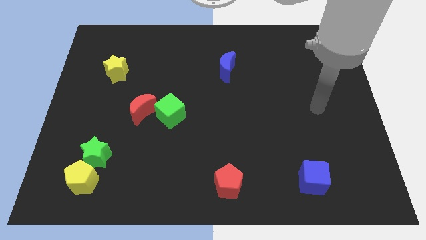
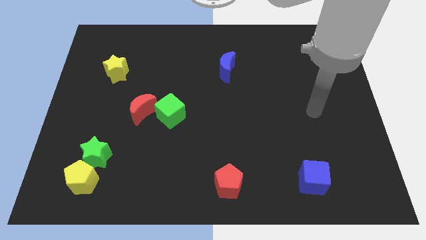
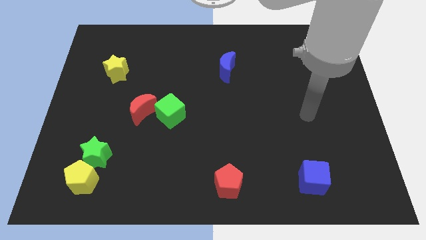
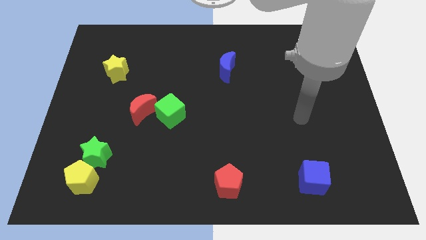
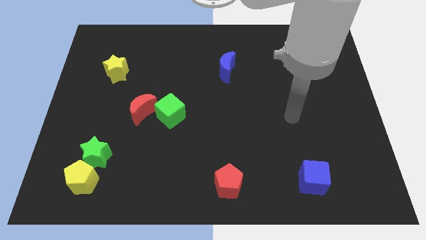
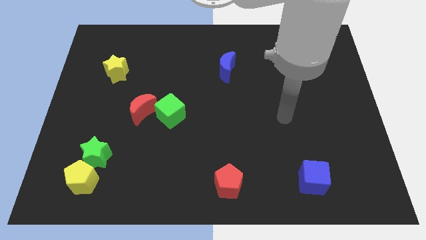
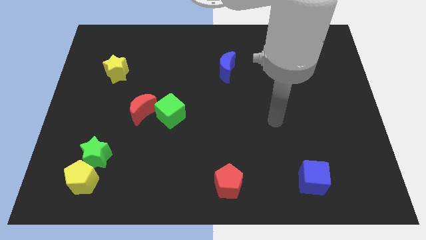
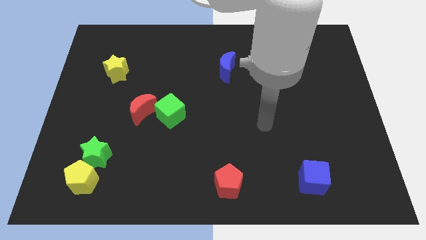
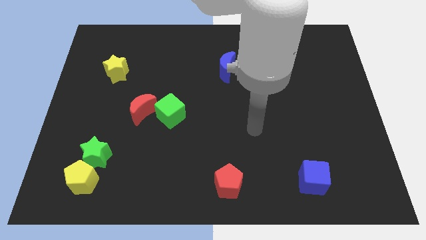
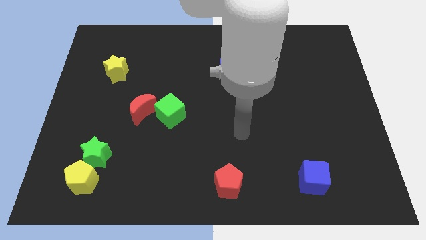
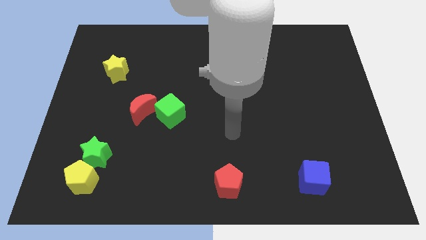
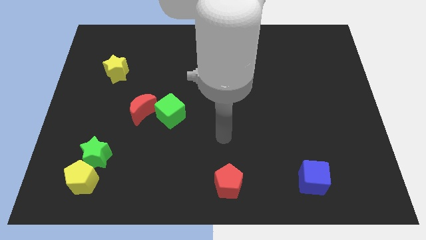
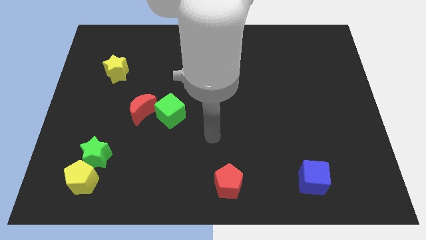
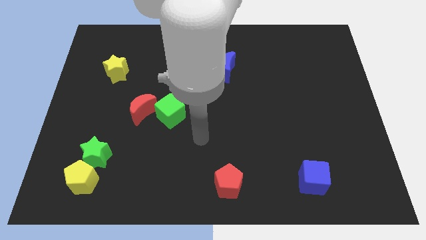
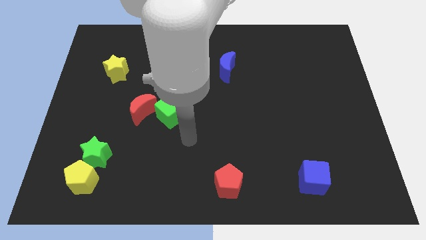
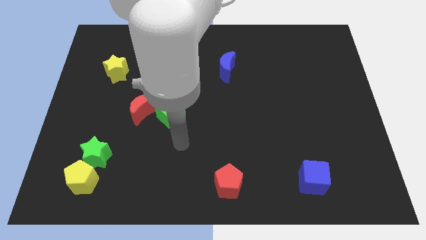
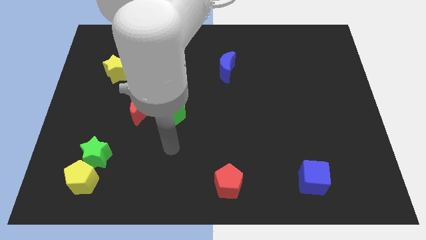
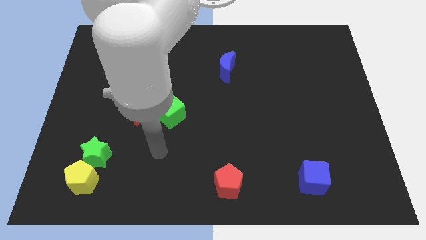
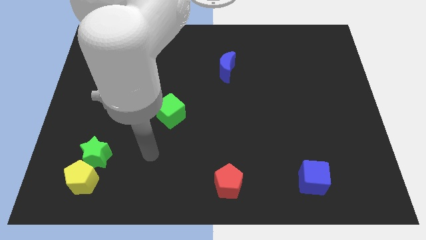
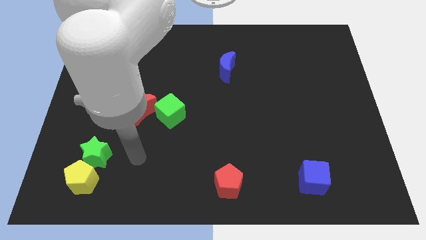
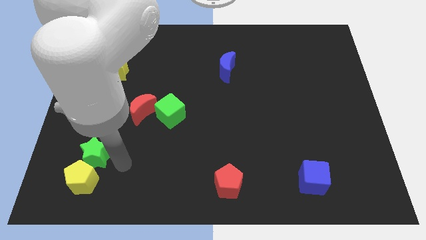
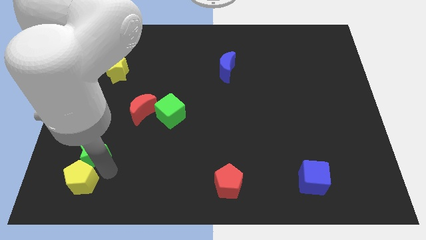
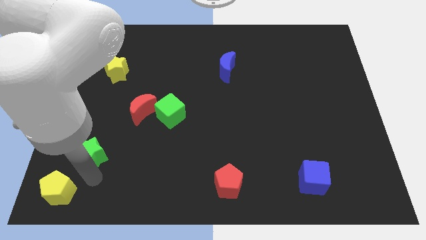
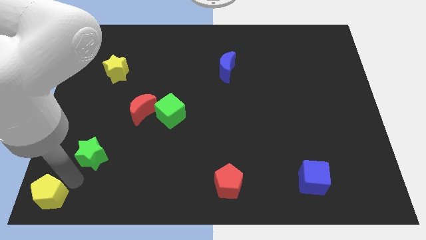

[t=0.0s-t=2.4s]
move the green star away from the yellow pentagon

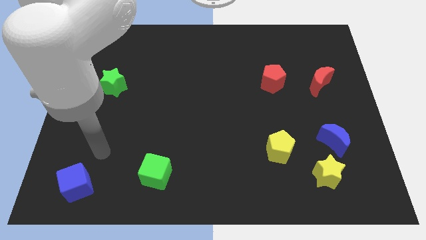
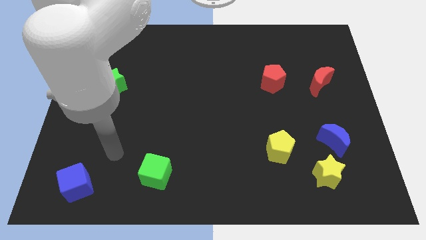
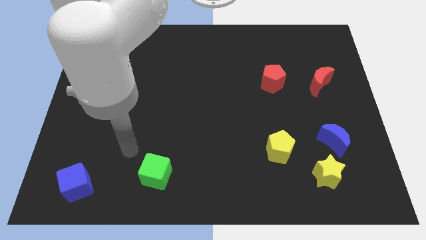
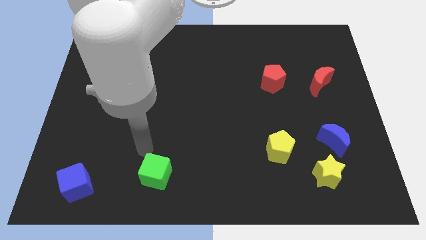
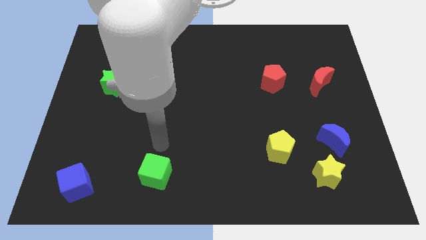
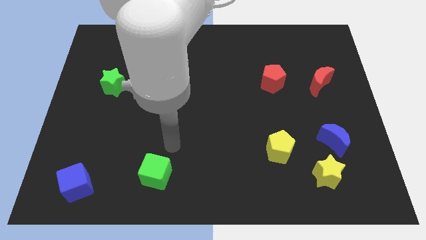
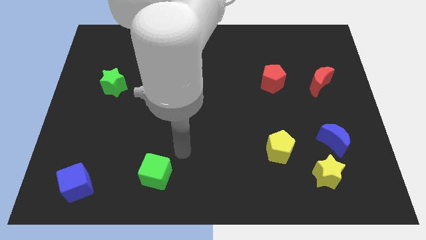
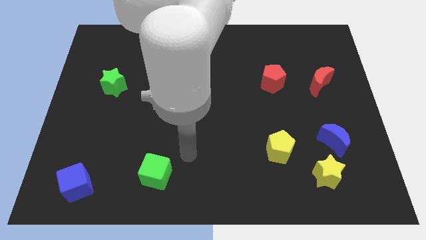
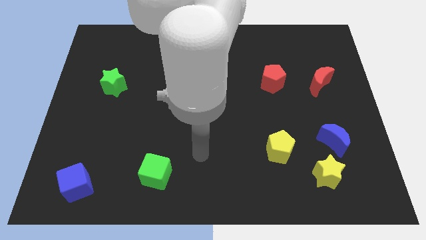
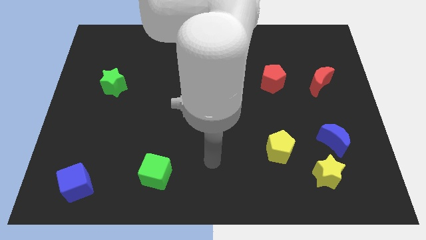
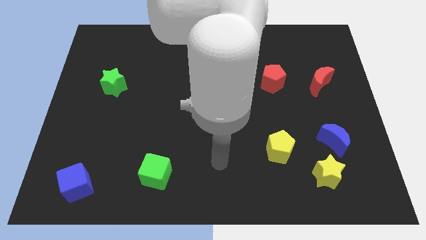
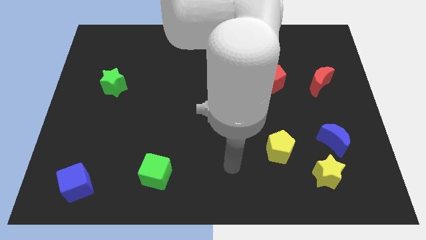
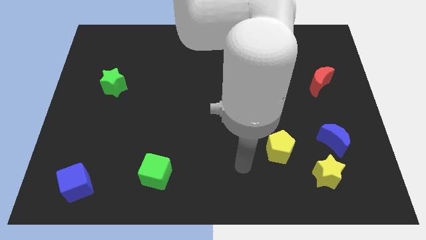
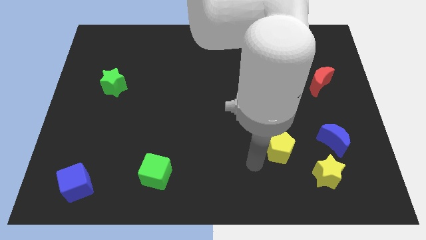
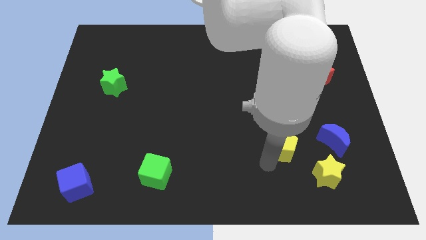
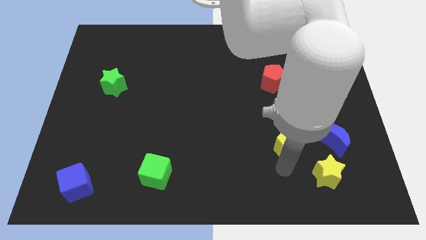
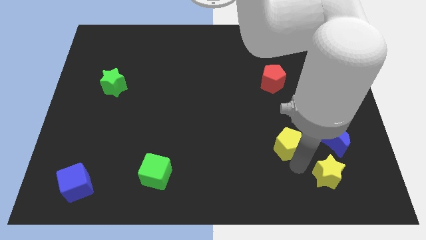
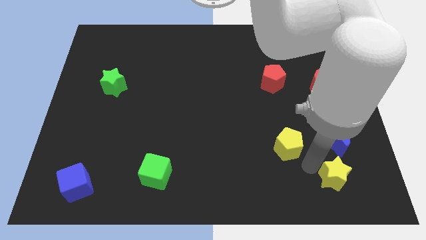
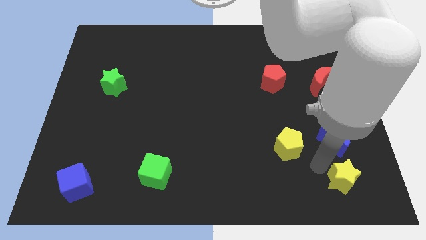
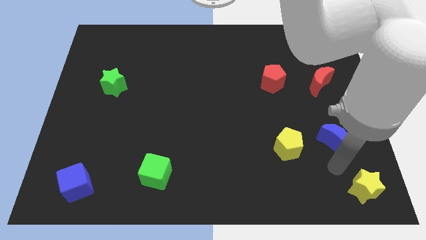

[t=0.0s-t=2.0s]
separate the blue moon from the yellow star

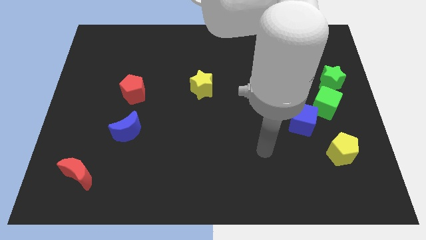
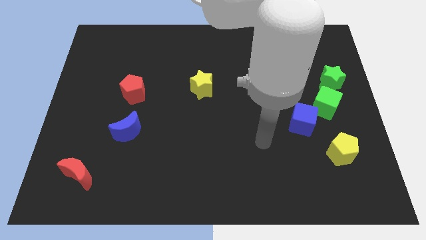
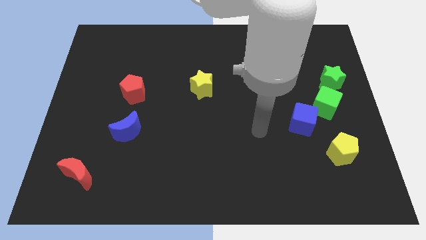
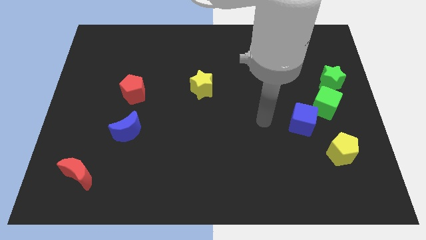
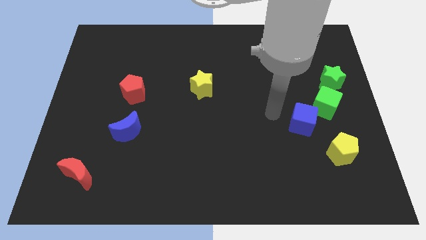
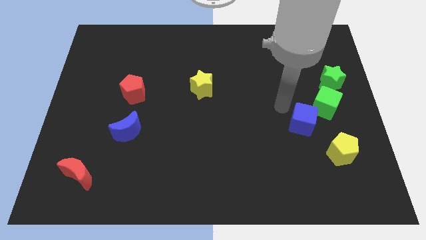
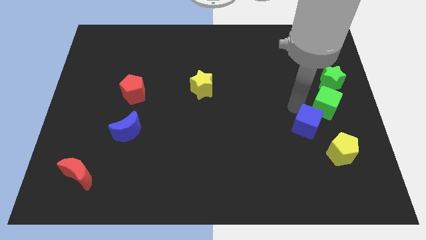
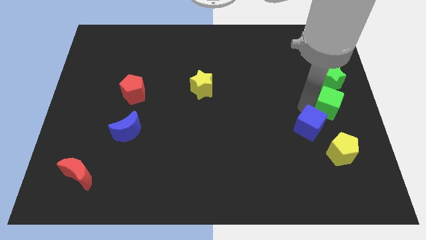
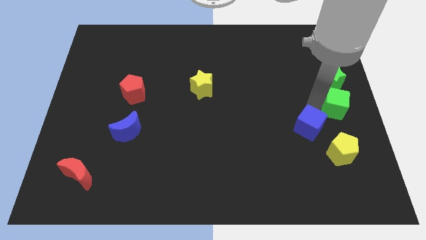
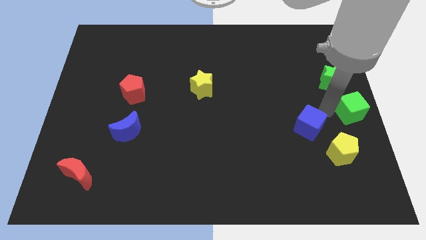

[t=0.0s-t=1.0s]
move the blue cube away from the green cube

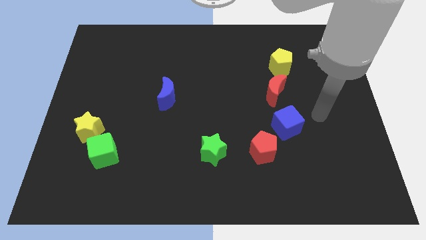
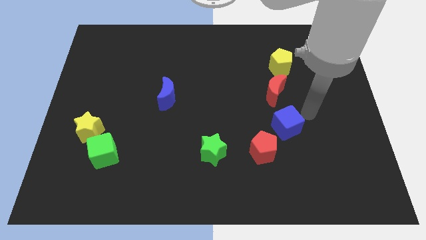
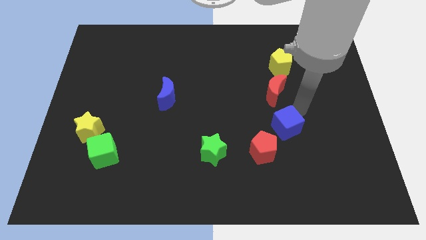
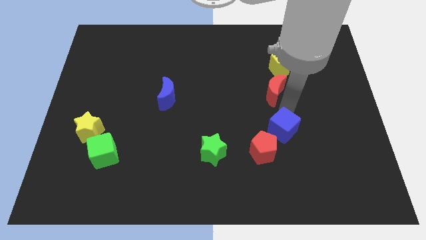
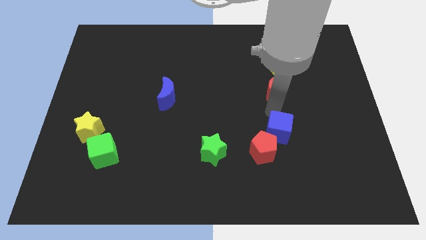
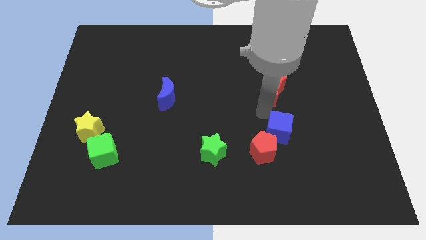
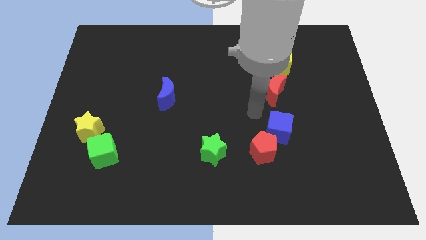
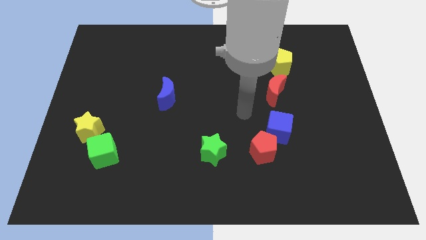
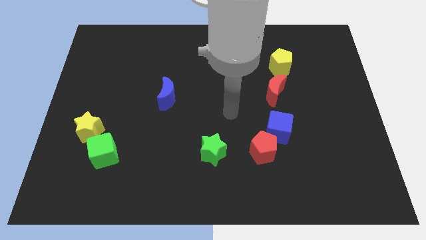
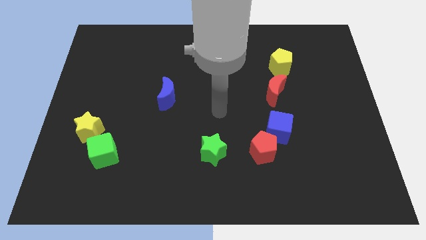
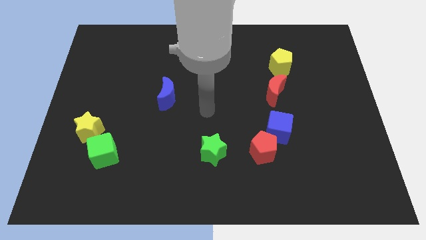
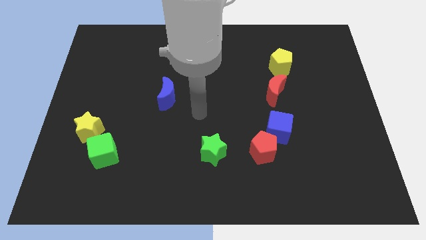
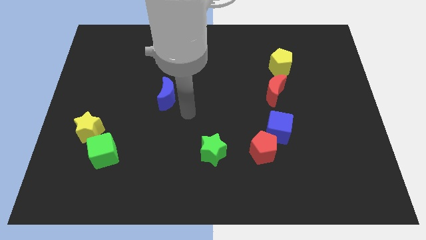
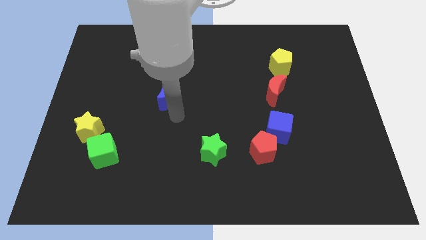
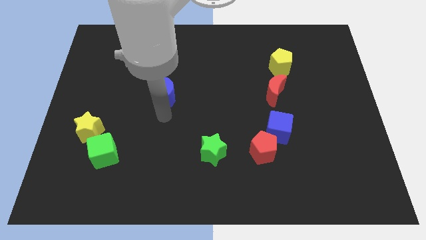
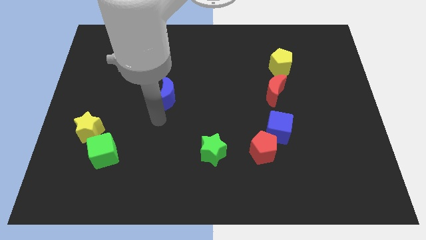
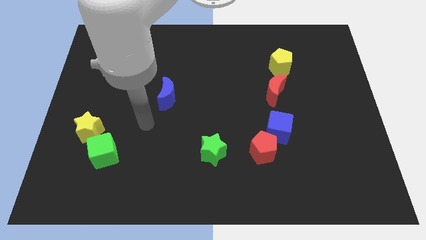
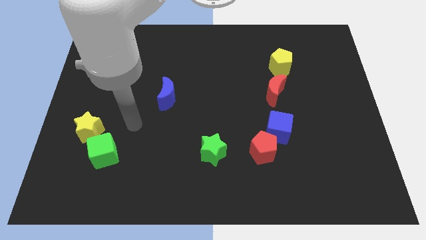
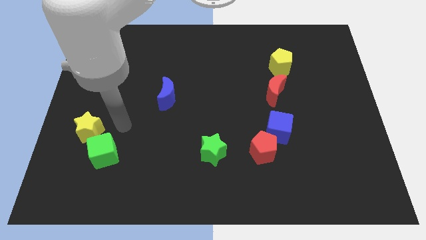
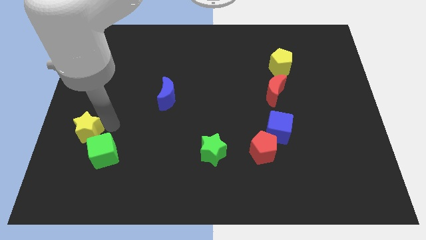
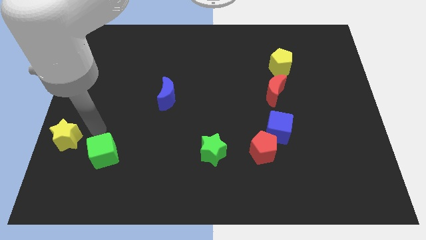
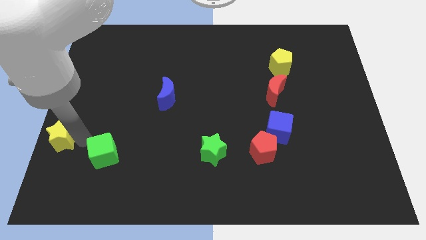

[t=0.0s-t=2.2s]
move the green cube away from the yellow star

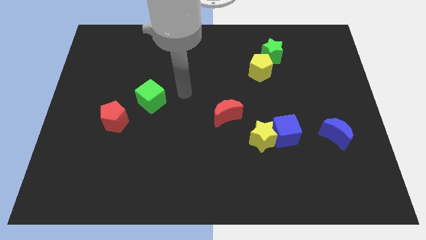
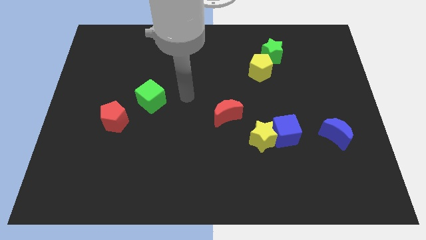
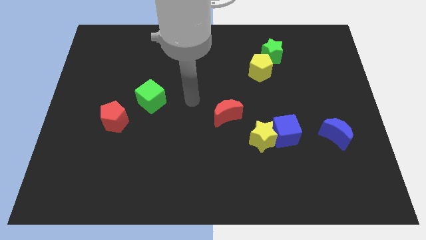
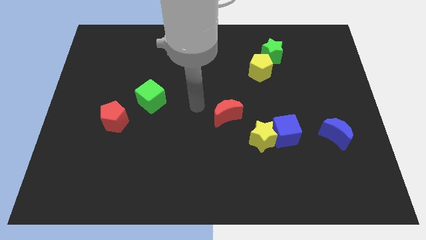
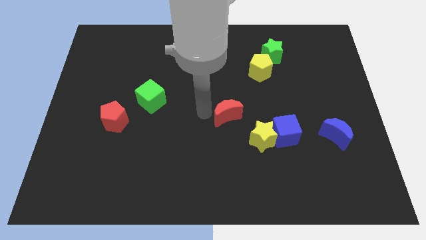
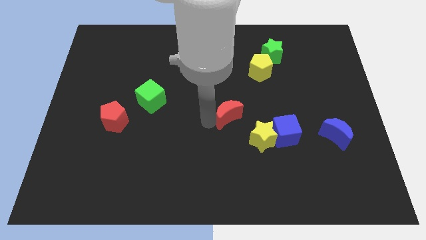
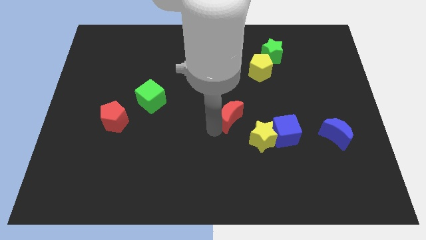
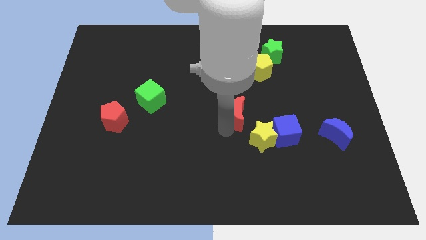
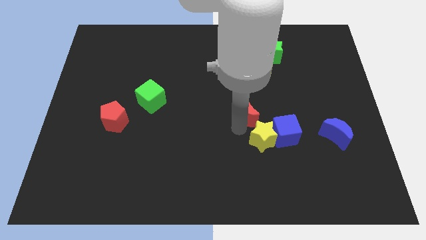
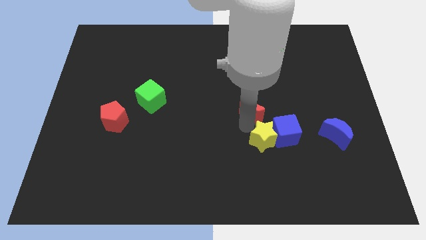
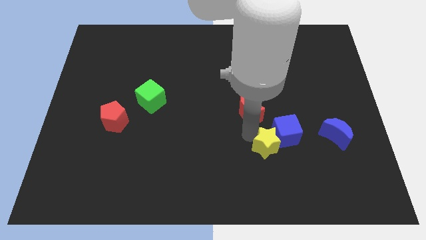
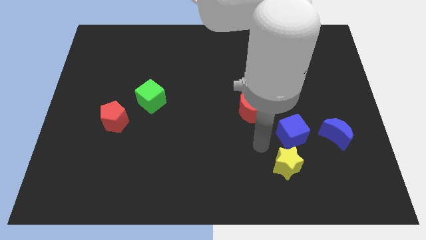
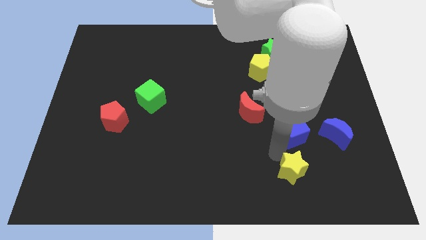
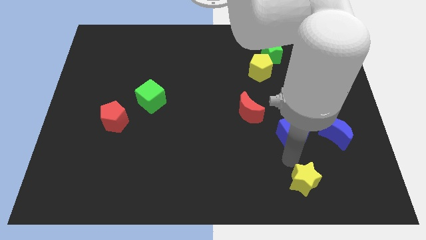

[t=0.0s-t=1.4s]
pull the blue cube apart from the yellow star

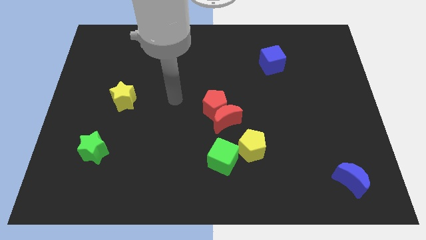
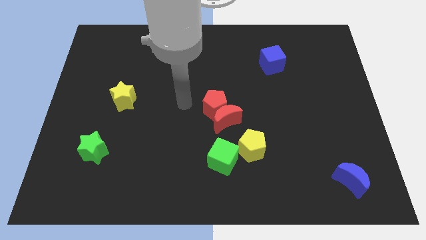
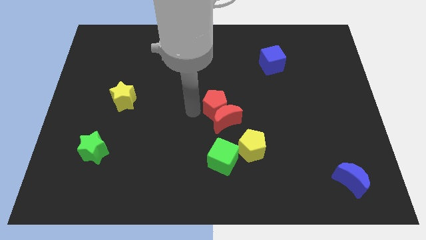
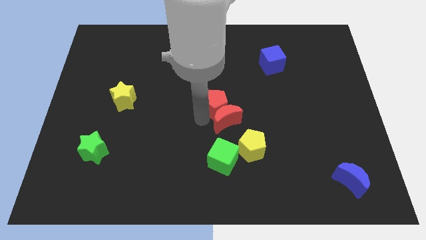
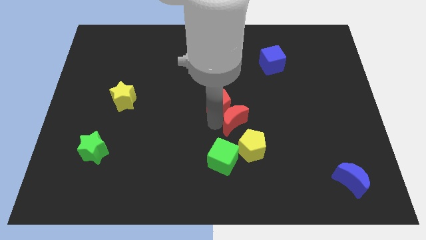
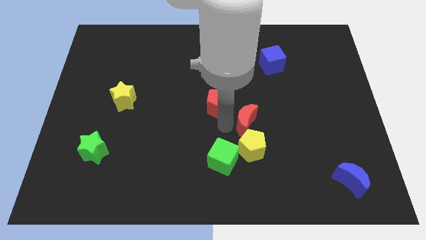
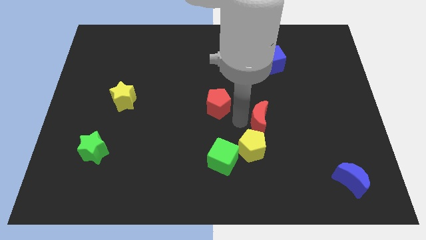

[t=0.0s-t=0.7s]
pull the red pentagon apart from the red moon
